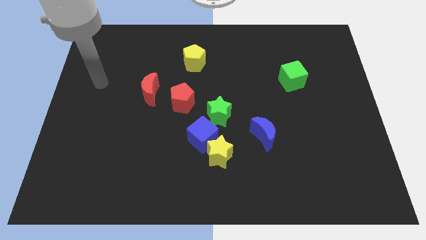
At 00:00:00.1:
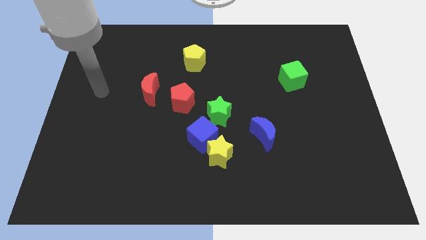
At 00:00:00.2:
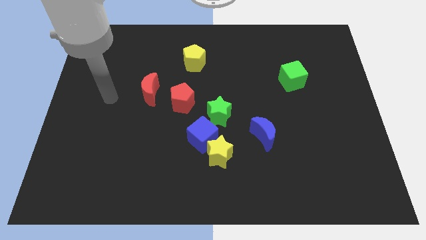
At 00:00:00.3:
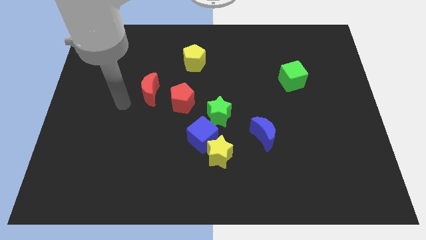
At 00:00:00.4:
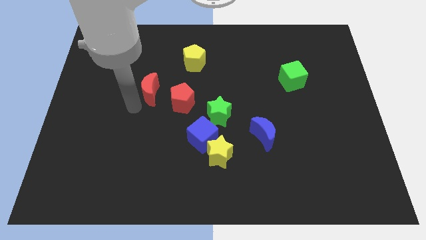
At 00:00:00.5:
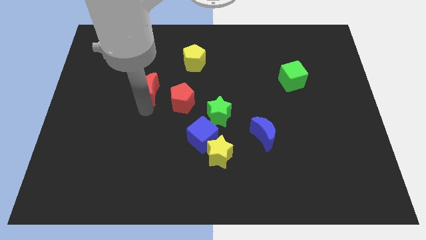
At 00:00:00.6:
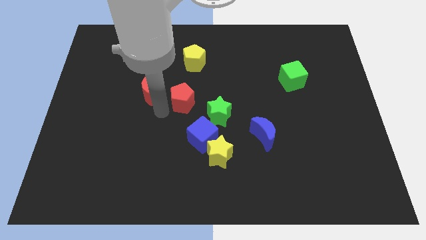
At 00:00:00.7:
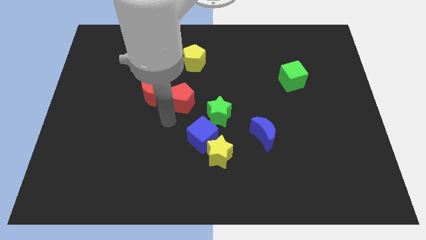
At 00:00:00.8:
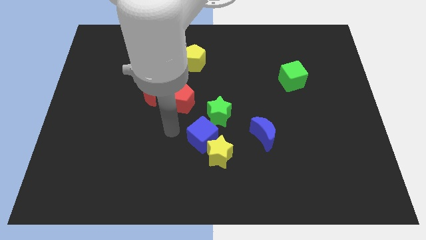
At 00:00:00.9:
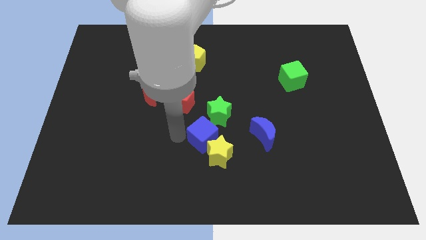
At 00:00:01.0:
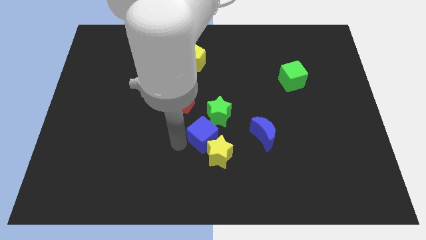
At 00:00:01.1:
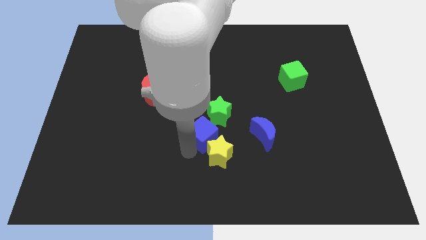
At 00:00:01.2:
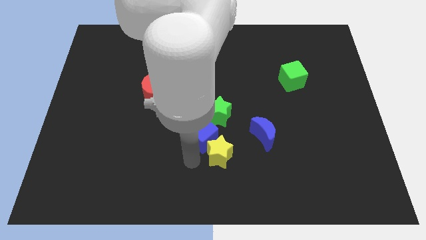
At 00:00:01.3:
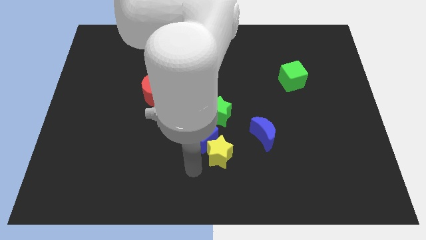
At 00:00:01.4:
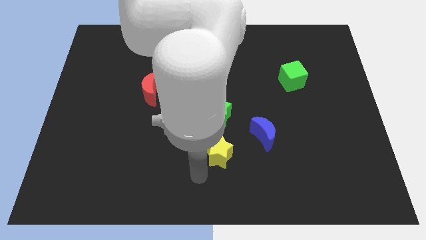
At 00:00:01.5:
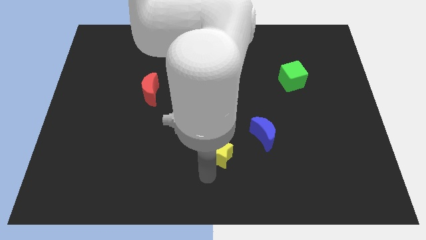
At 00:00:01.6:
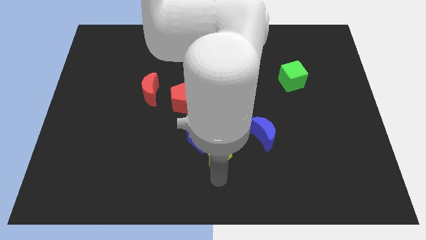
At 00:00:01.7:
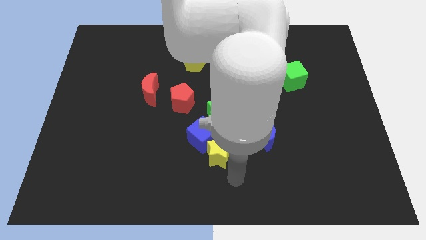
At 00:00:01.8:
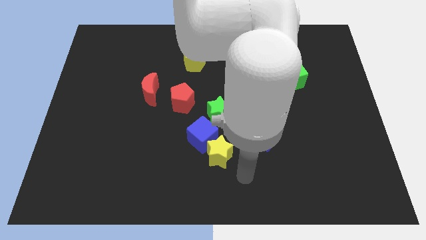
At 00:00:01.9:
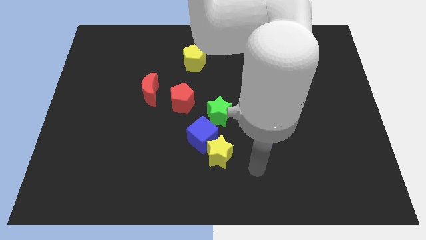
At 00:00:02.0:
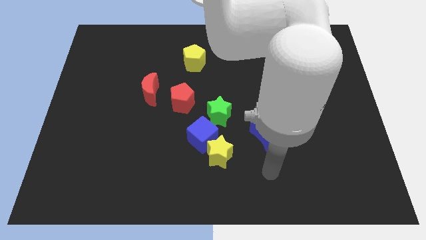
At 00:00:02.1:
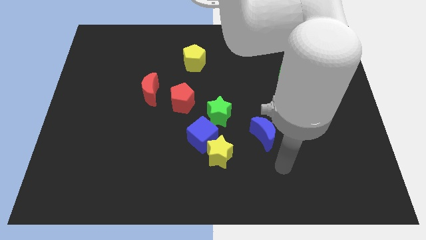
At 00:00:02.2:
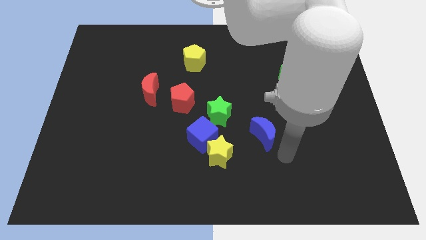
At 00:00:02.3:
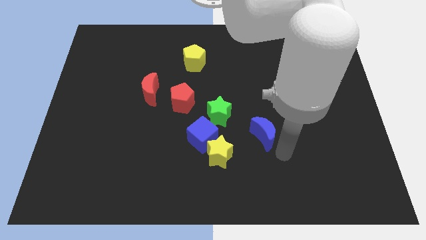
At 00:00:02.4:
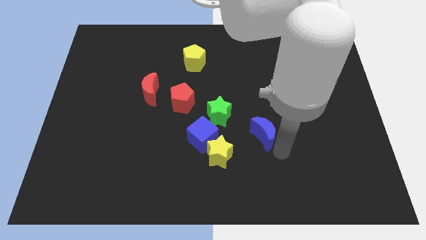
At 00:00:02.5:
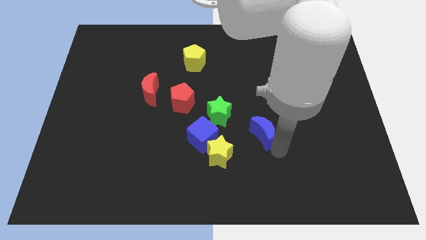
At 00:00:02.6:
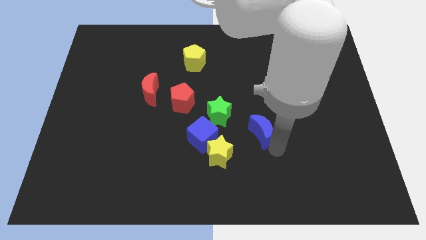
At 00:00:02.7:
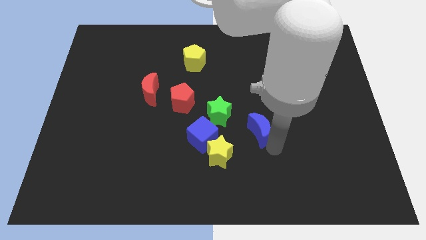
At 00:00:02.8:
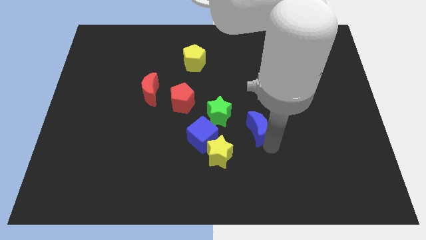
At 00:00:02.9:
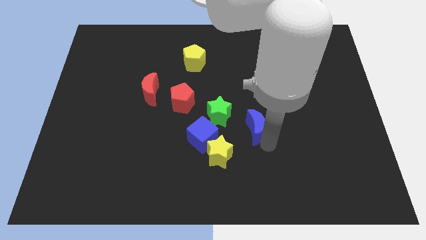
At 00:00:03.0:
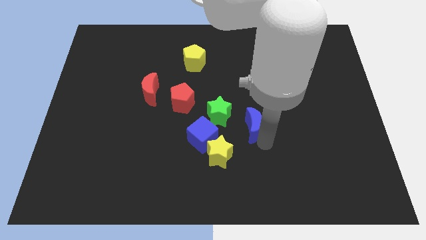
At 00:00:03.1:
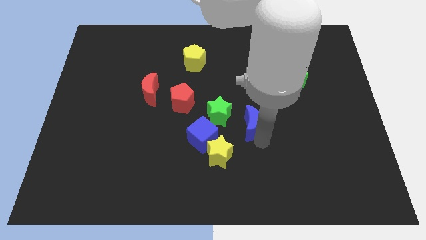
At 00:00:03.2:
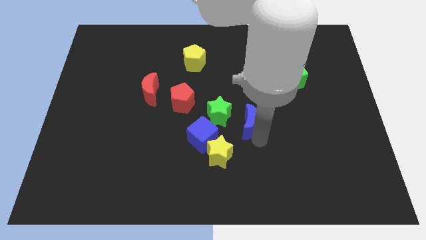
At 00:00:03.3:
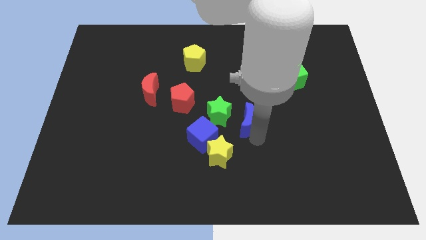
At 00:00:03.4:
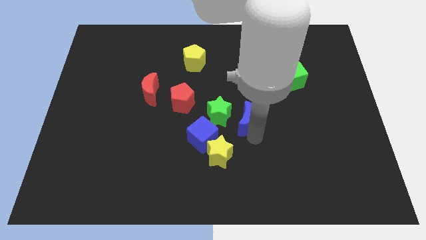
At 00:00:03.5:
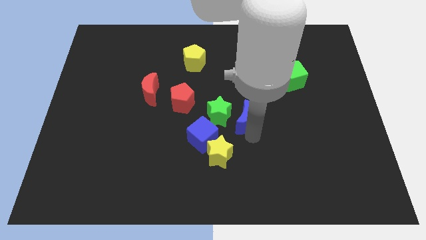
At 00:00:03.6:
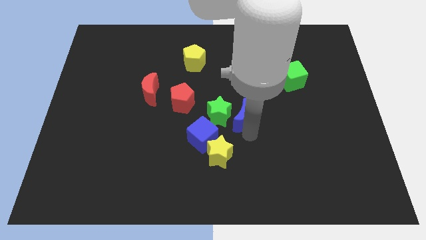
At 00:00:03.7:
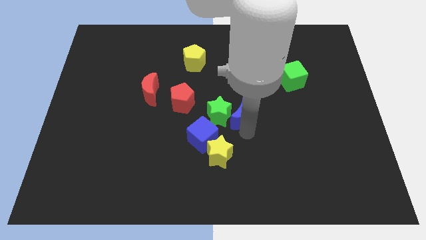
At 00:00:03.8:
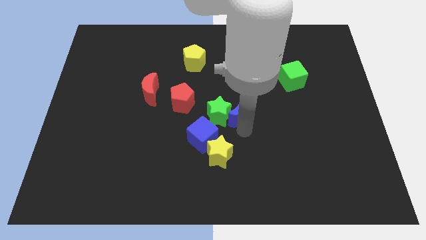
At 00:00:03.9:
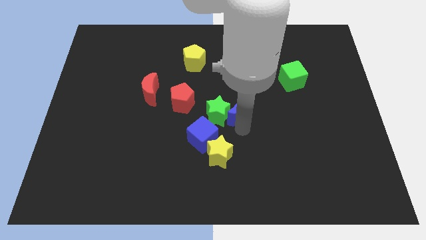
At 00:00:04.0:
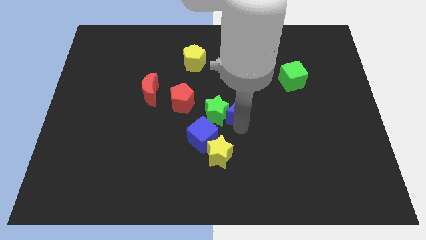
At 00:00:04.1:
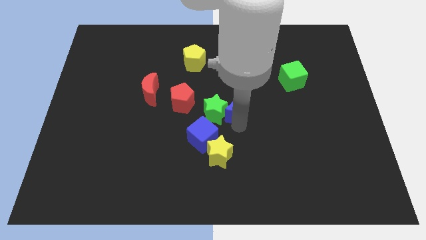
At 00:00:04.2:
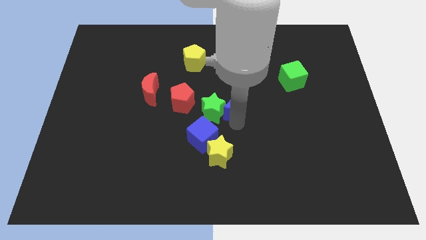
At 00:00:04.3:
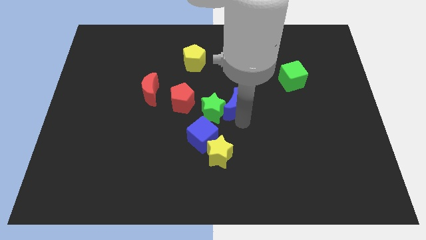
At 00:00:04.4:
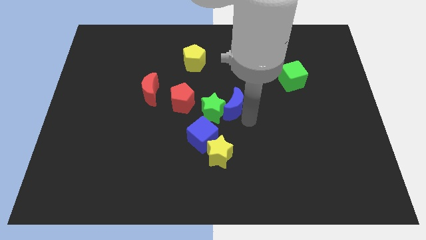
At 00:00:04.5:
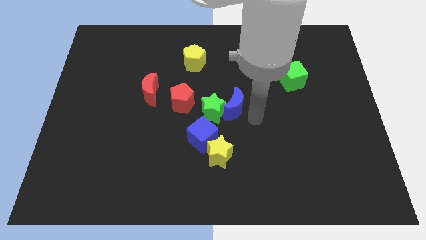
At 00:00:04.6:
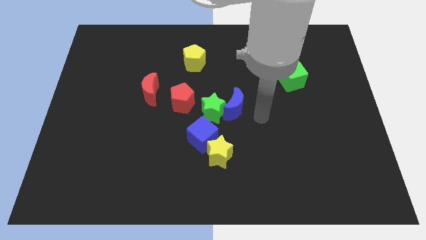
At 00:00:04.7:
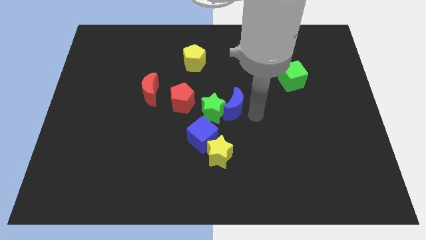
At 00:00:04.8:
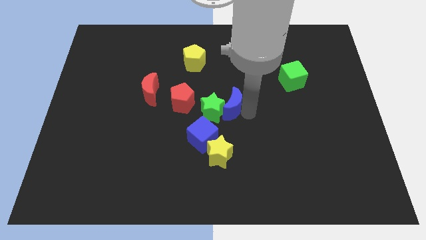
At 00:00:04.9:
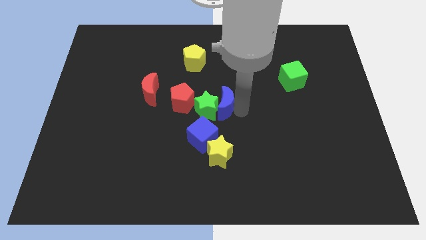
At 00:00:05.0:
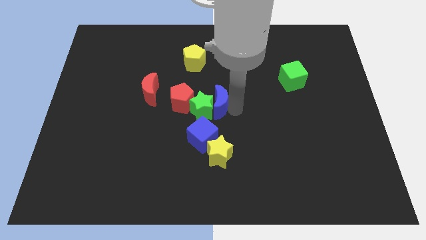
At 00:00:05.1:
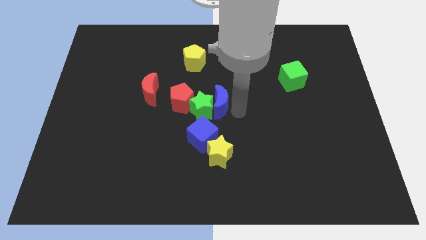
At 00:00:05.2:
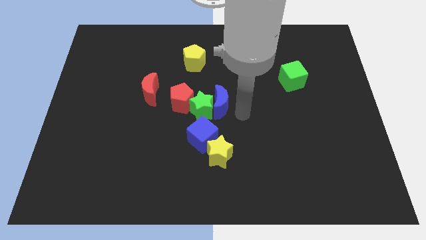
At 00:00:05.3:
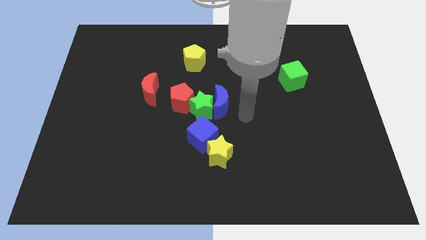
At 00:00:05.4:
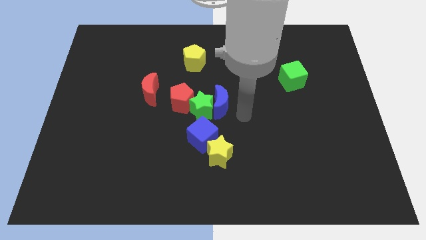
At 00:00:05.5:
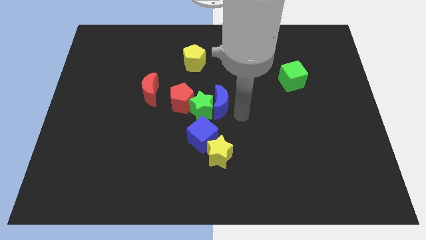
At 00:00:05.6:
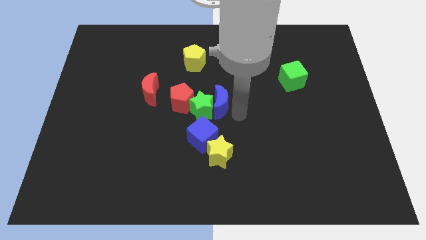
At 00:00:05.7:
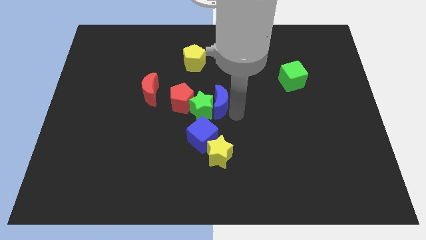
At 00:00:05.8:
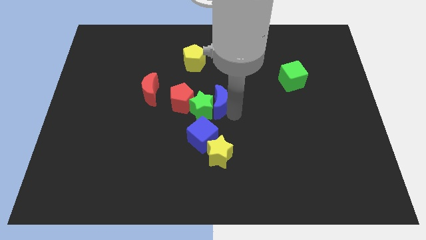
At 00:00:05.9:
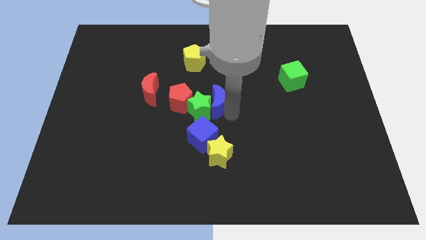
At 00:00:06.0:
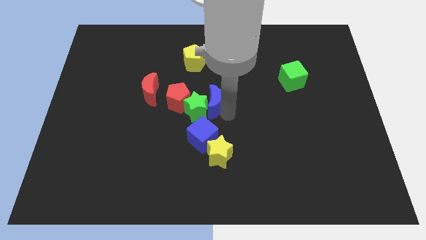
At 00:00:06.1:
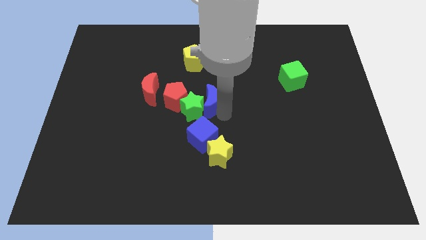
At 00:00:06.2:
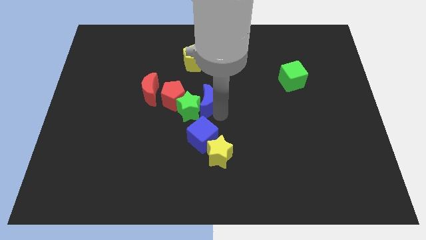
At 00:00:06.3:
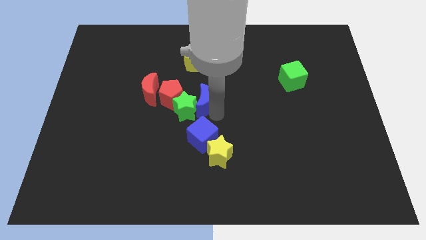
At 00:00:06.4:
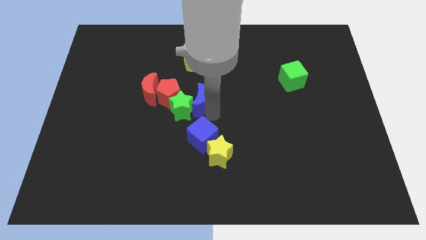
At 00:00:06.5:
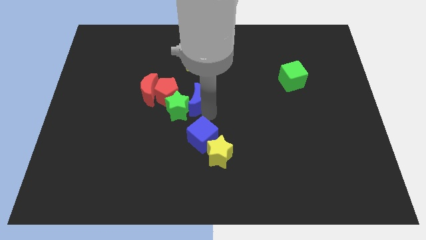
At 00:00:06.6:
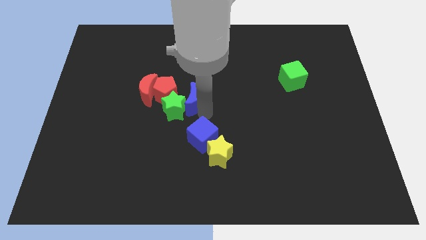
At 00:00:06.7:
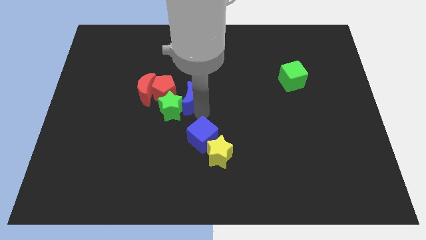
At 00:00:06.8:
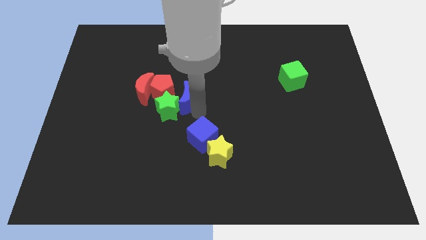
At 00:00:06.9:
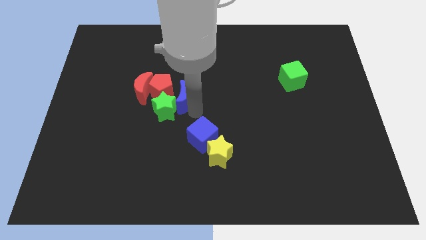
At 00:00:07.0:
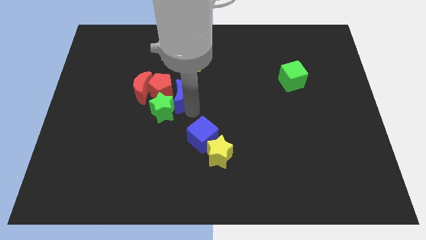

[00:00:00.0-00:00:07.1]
put the blue moon next to the red pentagon

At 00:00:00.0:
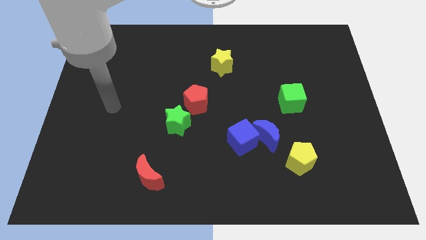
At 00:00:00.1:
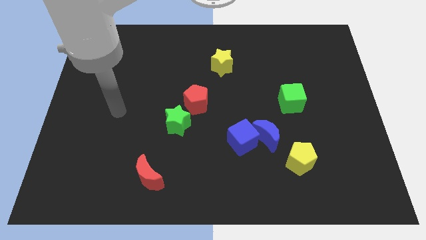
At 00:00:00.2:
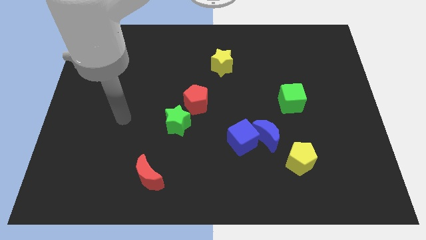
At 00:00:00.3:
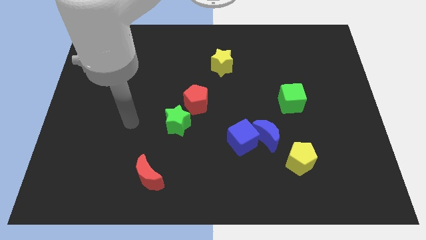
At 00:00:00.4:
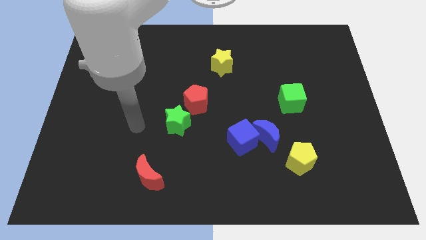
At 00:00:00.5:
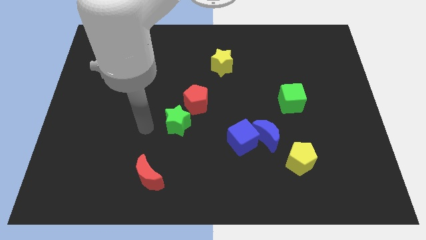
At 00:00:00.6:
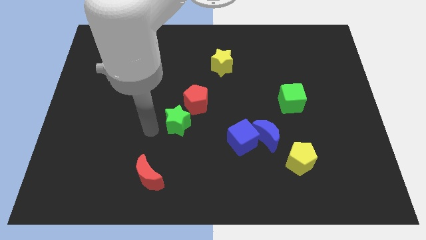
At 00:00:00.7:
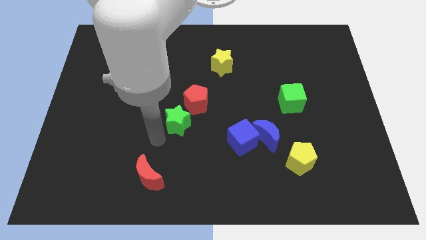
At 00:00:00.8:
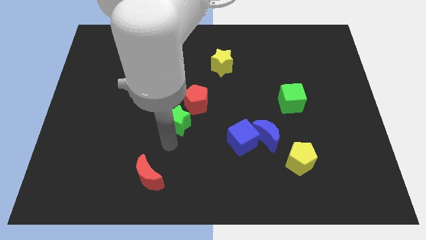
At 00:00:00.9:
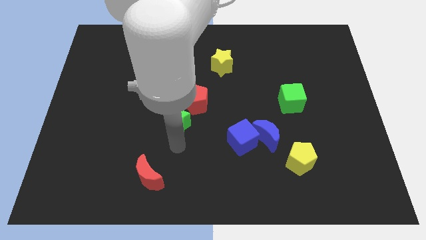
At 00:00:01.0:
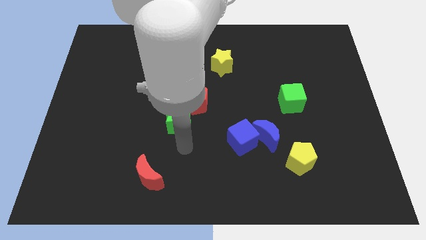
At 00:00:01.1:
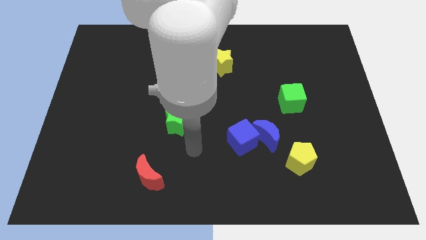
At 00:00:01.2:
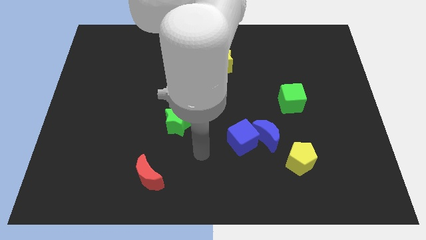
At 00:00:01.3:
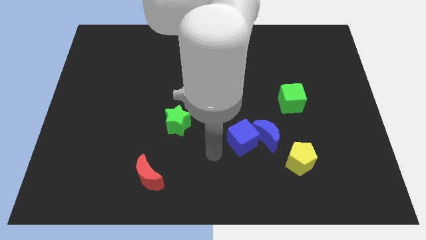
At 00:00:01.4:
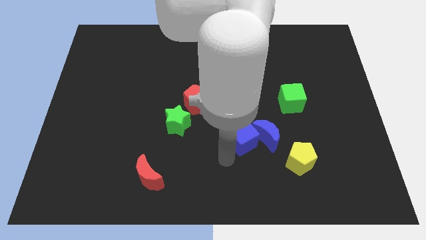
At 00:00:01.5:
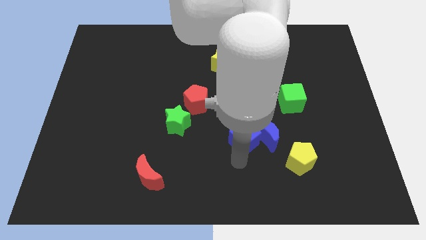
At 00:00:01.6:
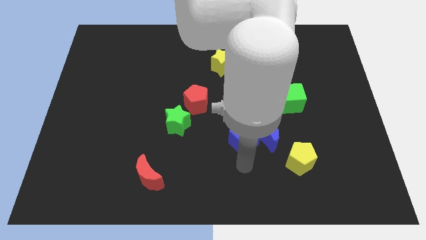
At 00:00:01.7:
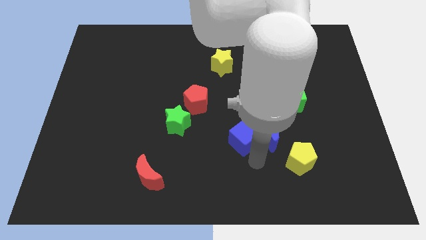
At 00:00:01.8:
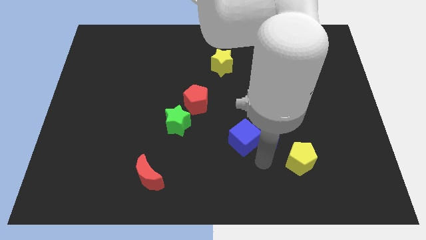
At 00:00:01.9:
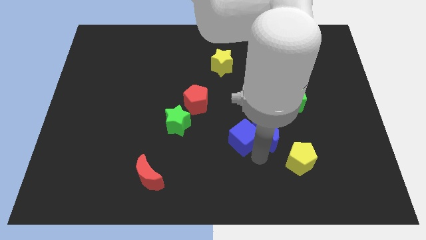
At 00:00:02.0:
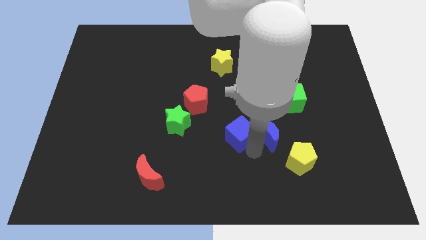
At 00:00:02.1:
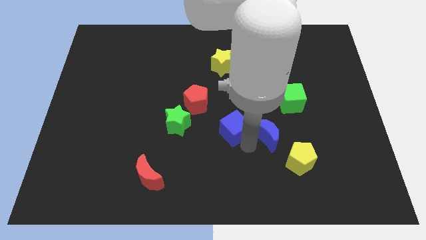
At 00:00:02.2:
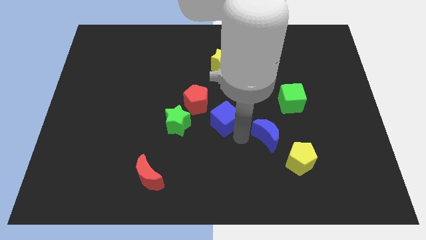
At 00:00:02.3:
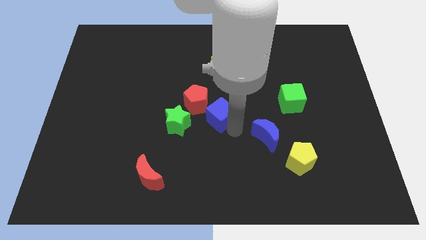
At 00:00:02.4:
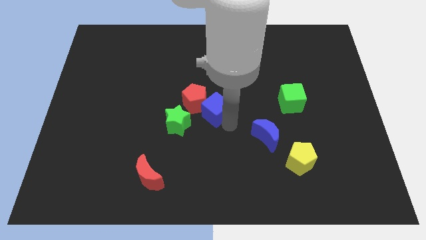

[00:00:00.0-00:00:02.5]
put the blue cube towards the red pentagon
